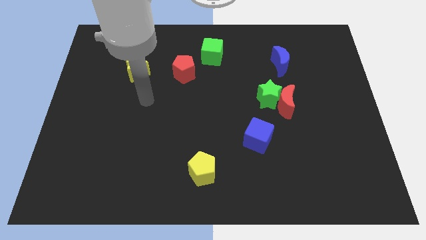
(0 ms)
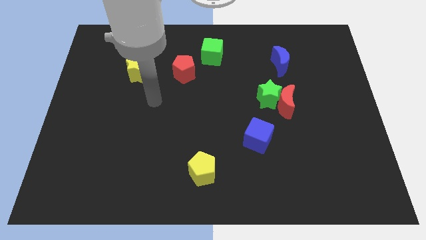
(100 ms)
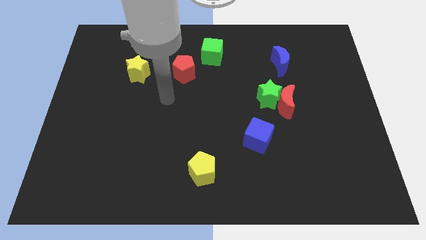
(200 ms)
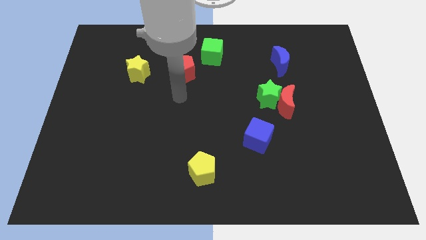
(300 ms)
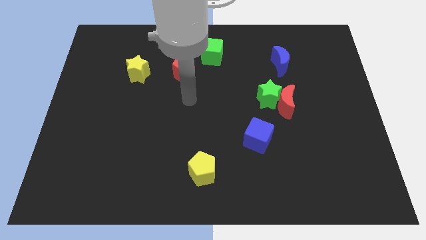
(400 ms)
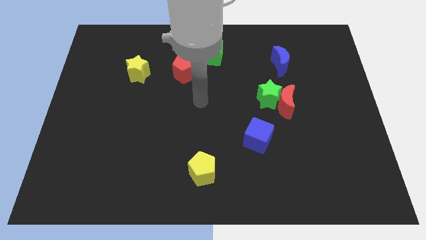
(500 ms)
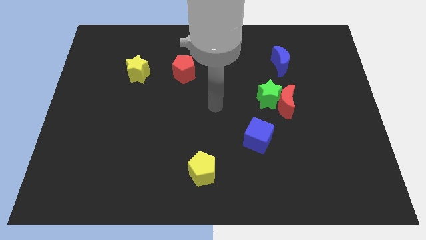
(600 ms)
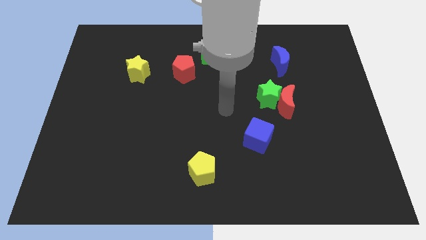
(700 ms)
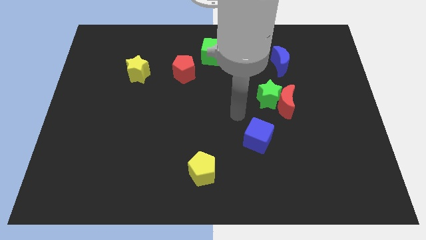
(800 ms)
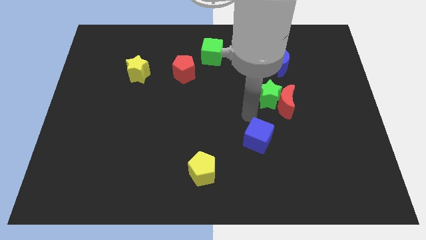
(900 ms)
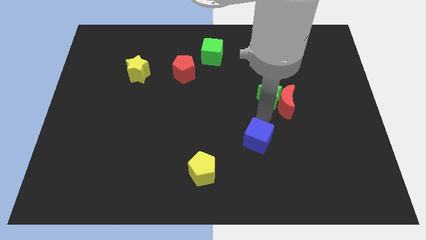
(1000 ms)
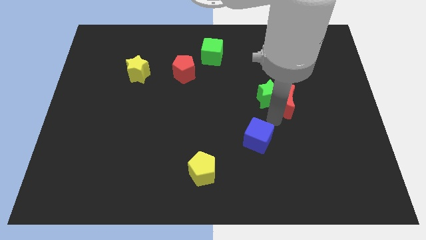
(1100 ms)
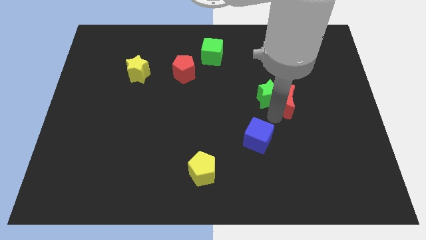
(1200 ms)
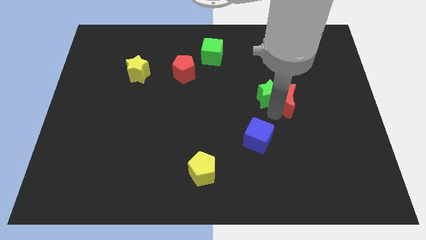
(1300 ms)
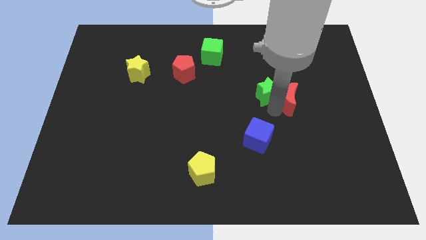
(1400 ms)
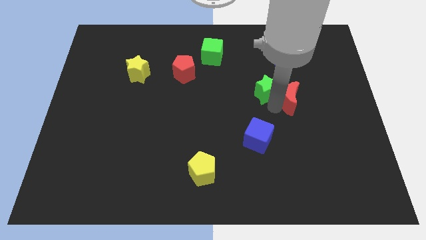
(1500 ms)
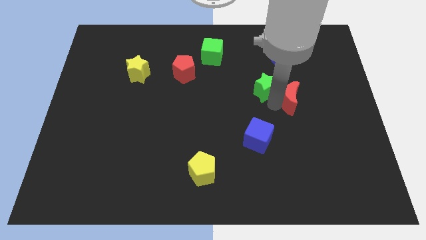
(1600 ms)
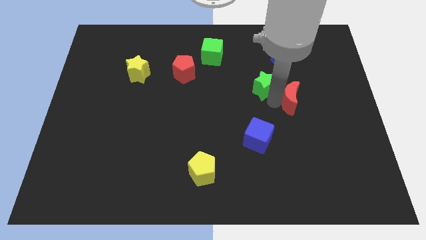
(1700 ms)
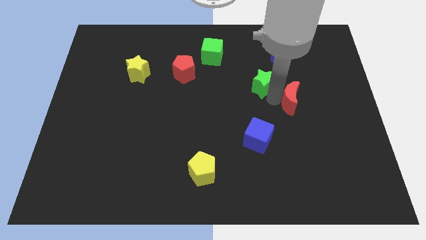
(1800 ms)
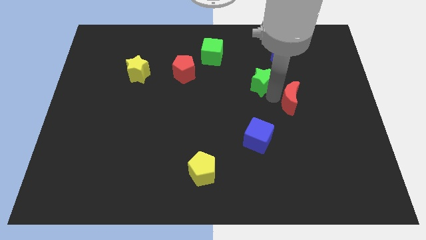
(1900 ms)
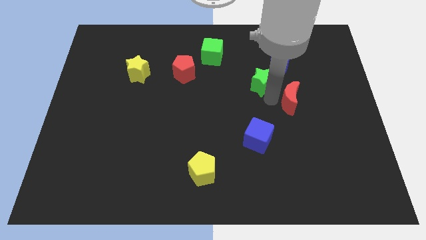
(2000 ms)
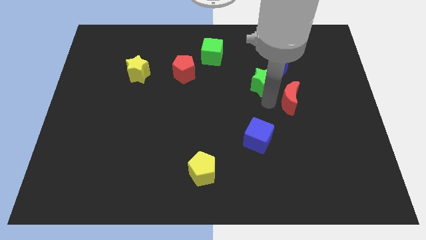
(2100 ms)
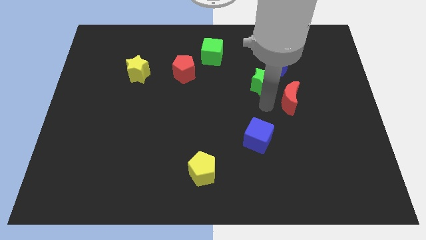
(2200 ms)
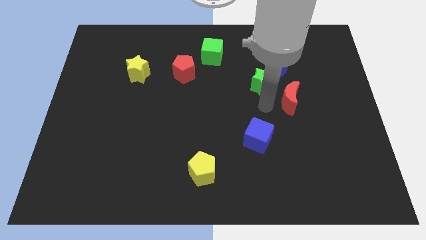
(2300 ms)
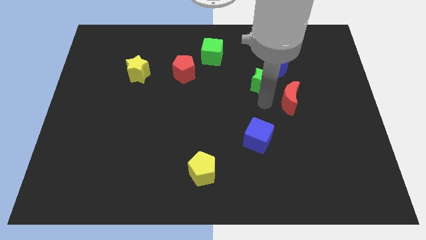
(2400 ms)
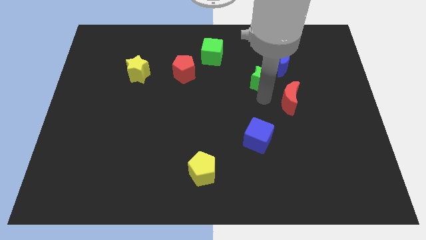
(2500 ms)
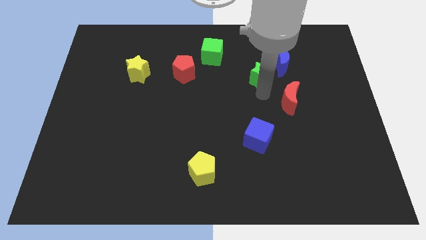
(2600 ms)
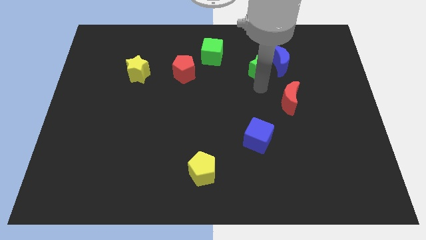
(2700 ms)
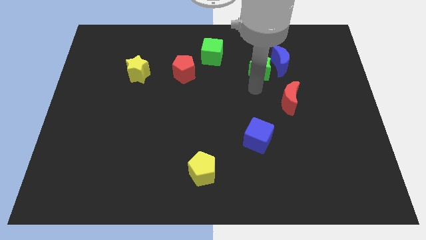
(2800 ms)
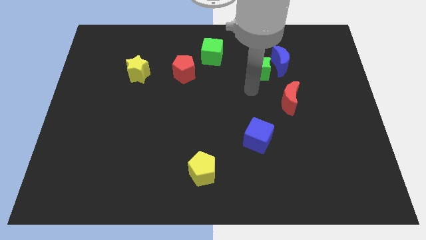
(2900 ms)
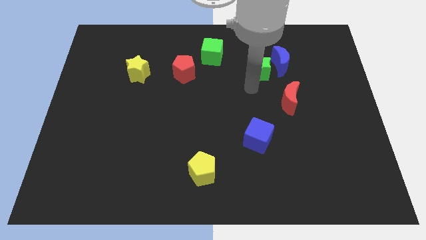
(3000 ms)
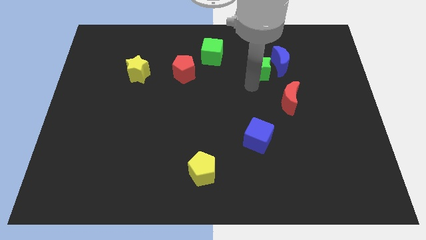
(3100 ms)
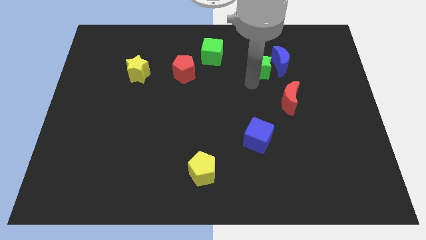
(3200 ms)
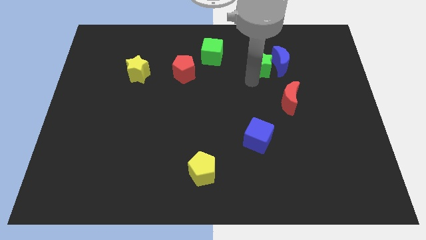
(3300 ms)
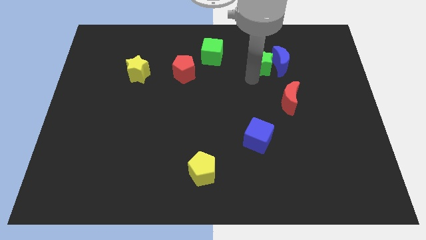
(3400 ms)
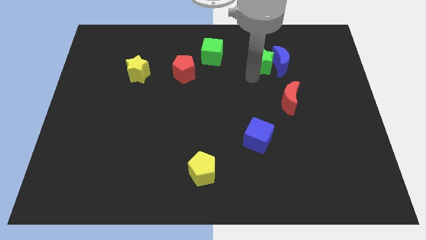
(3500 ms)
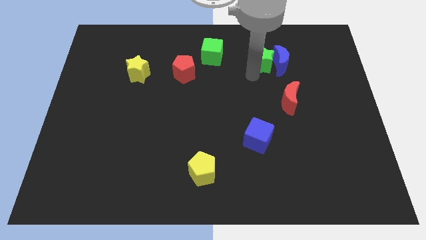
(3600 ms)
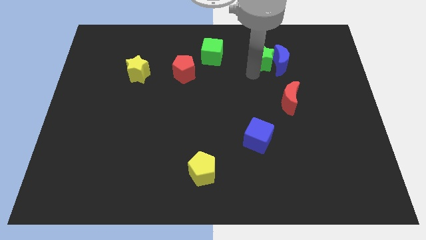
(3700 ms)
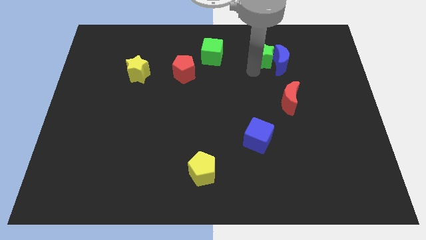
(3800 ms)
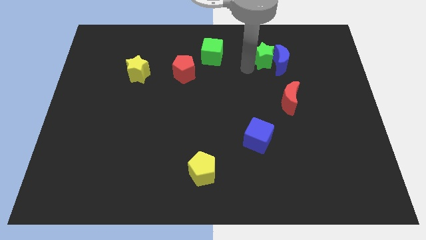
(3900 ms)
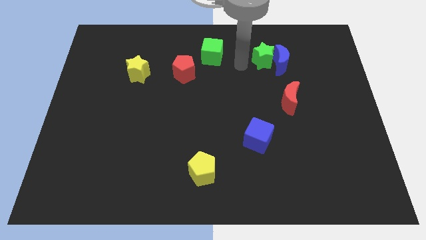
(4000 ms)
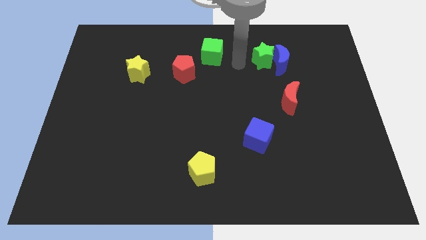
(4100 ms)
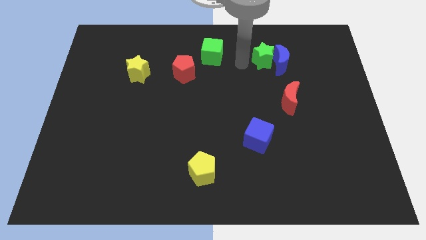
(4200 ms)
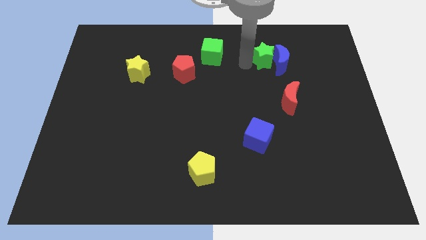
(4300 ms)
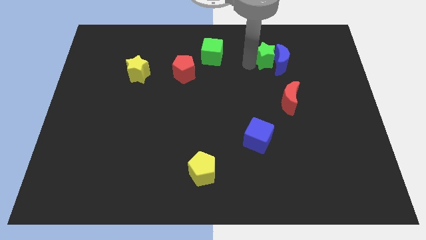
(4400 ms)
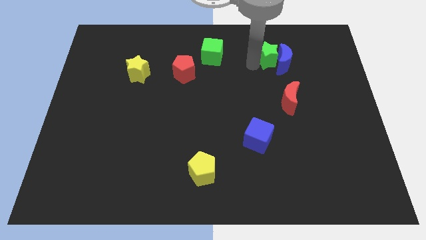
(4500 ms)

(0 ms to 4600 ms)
slide the green star up and to the right a bit

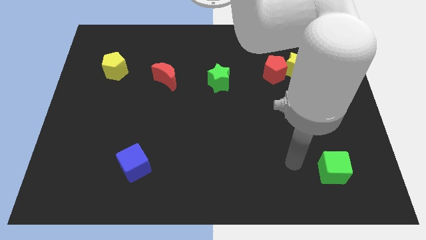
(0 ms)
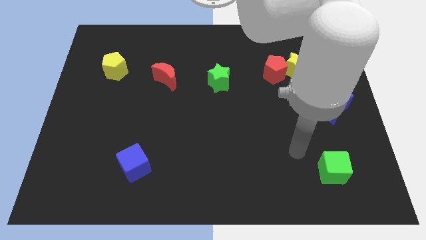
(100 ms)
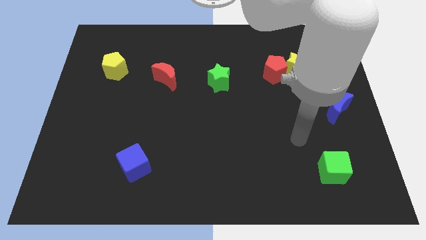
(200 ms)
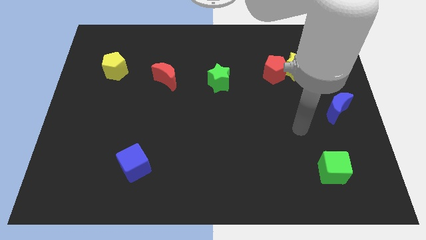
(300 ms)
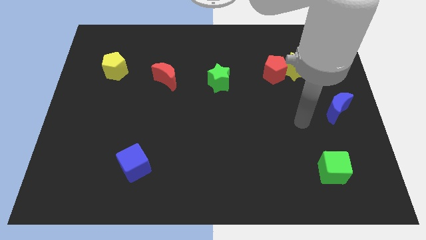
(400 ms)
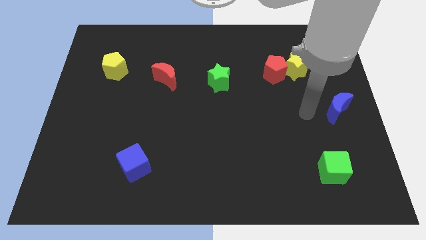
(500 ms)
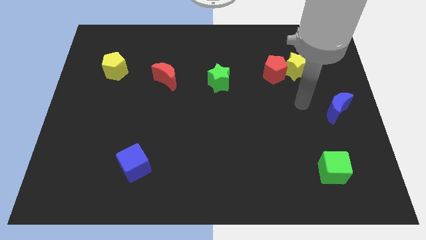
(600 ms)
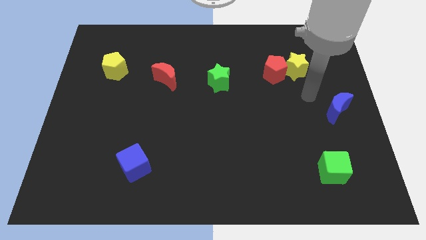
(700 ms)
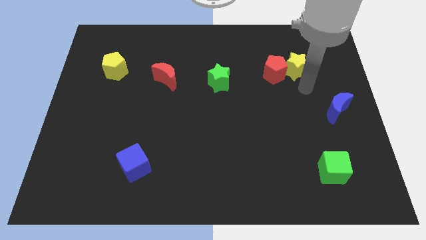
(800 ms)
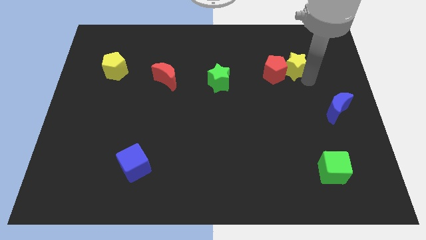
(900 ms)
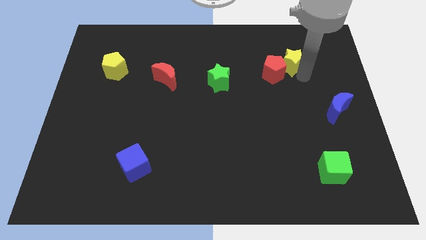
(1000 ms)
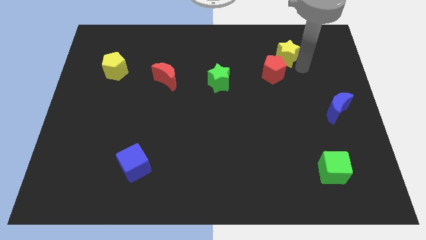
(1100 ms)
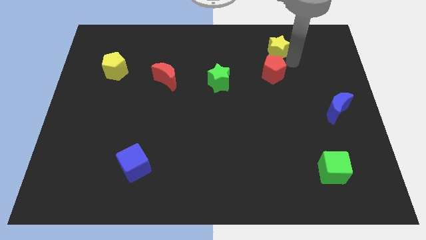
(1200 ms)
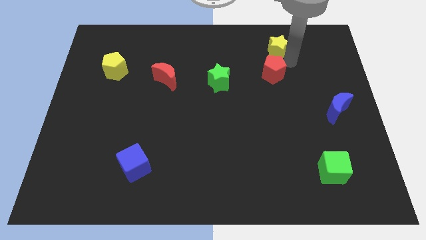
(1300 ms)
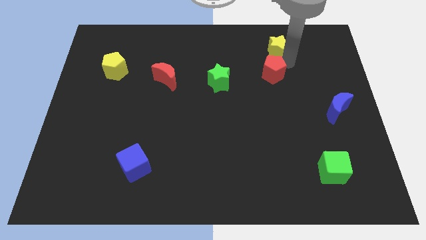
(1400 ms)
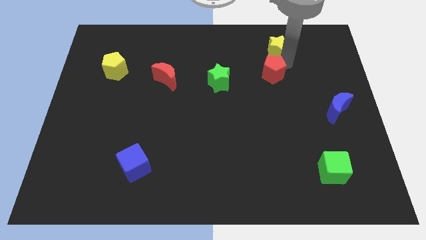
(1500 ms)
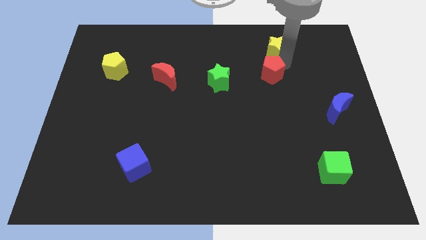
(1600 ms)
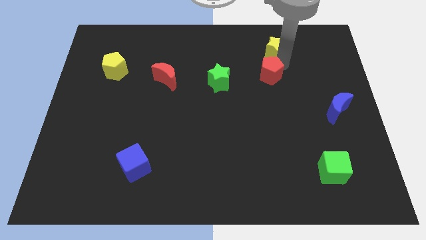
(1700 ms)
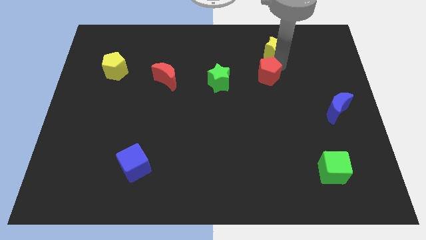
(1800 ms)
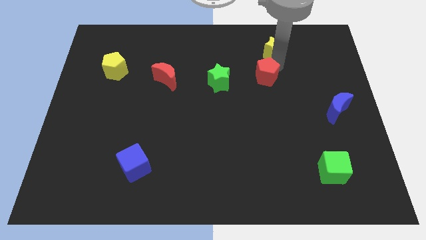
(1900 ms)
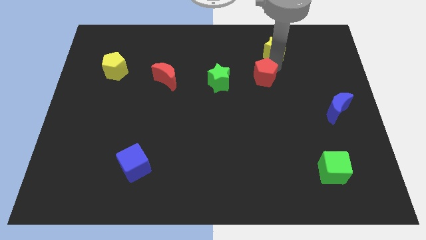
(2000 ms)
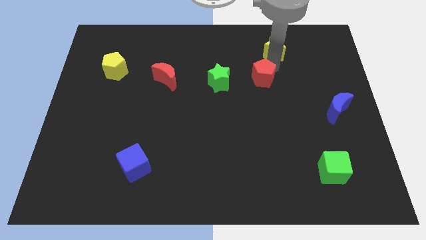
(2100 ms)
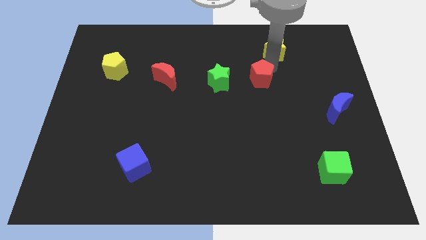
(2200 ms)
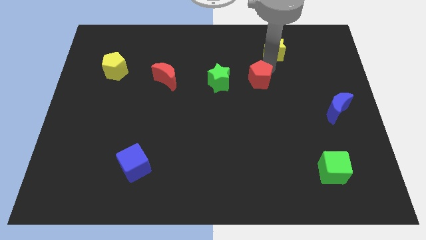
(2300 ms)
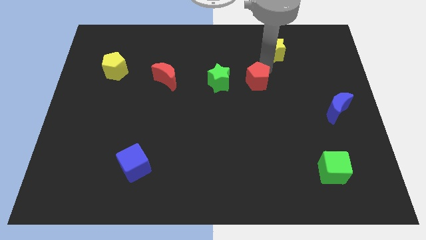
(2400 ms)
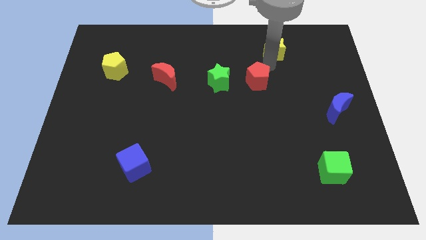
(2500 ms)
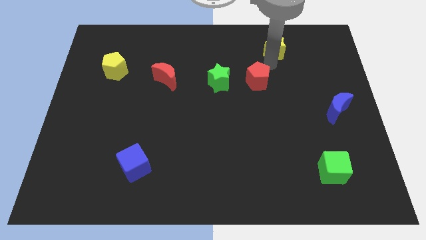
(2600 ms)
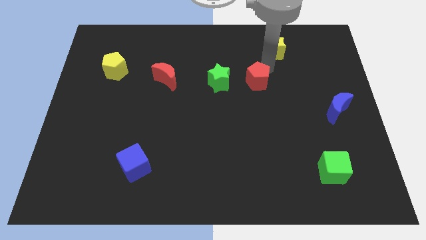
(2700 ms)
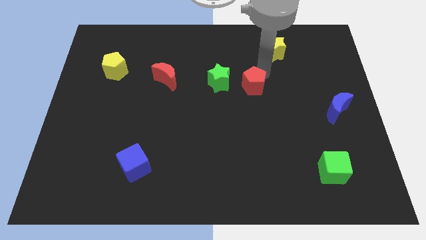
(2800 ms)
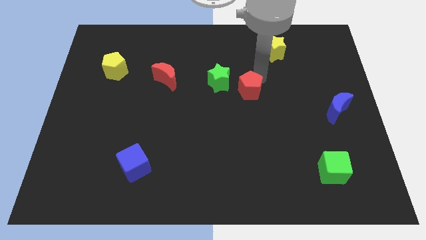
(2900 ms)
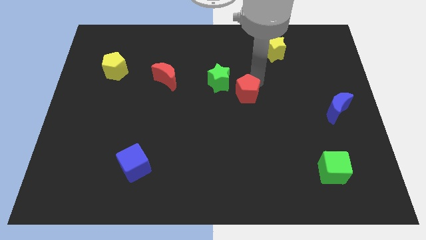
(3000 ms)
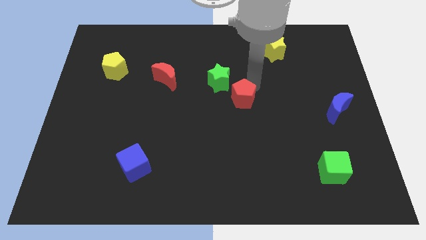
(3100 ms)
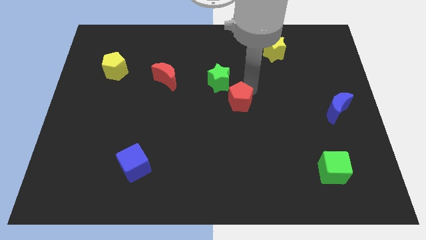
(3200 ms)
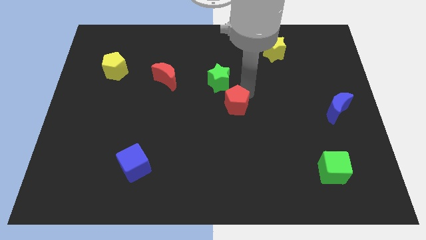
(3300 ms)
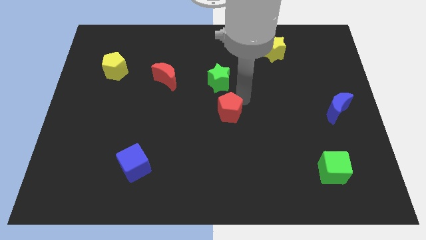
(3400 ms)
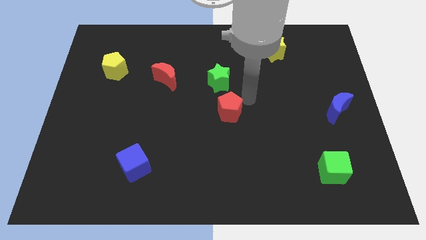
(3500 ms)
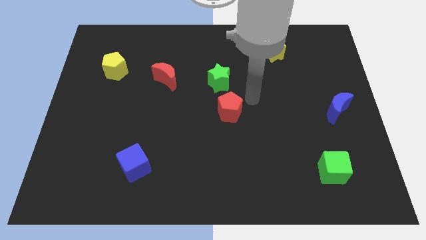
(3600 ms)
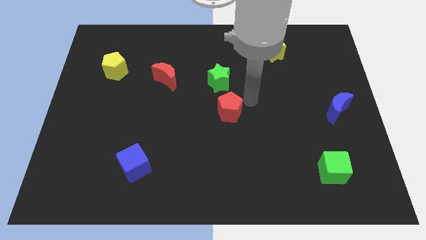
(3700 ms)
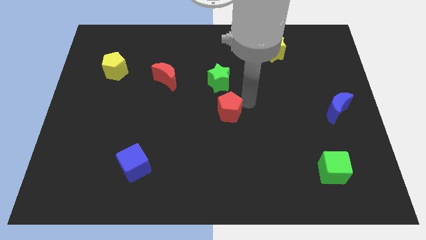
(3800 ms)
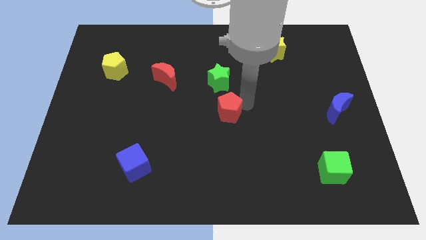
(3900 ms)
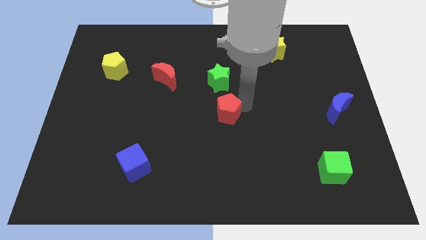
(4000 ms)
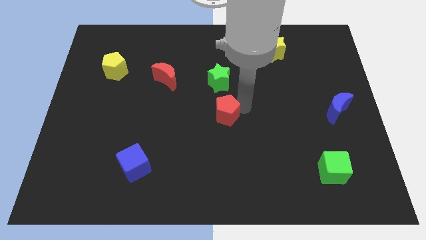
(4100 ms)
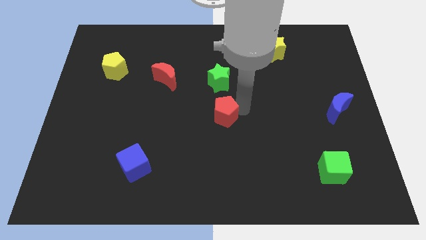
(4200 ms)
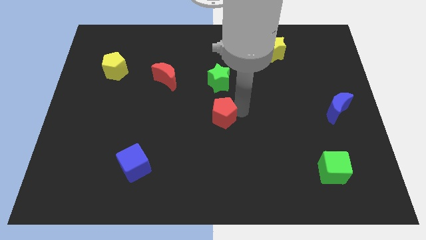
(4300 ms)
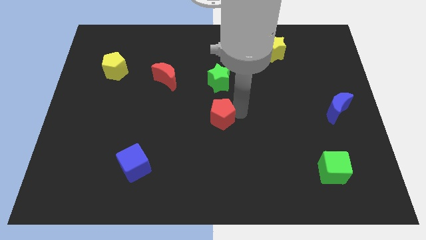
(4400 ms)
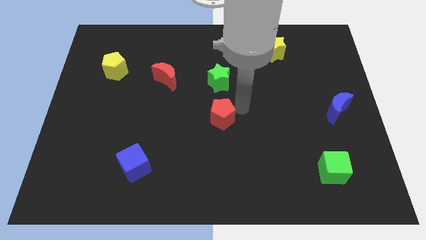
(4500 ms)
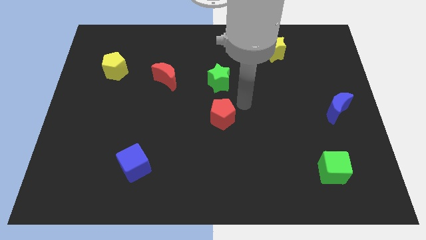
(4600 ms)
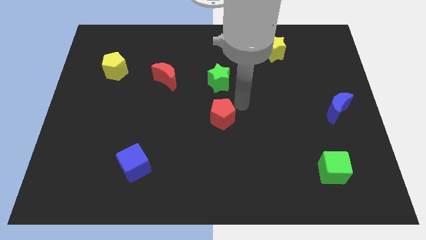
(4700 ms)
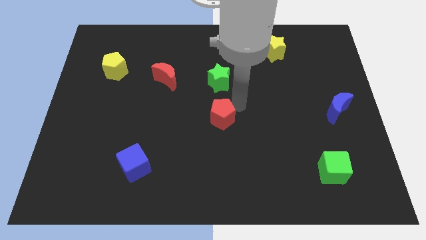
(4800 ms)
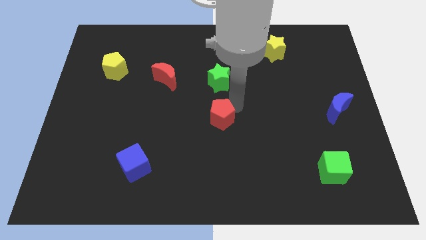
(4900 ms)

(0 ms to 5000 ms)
slide the red pentagon downwards and to the left diagonally
